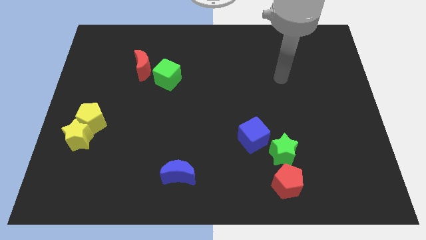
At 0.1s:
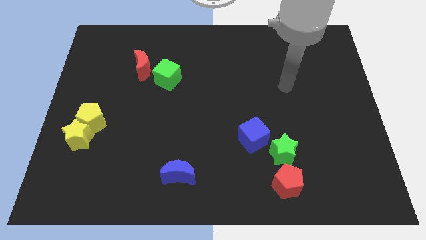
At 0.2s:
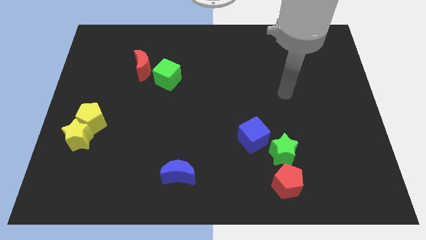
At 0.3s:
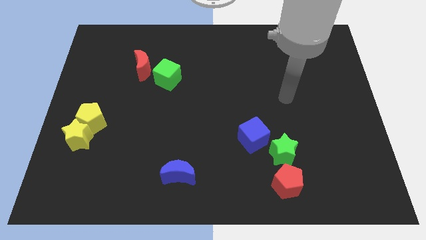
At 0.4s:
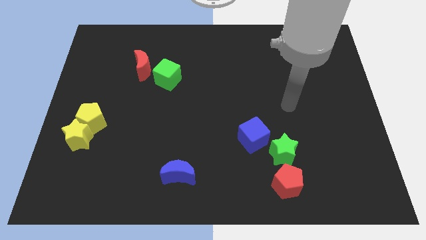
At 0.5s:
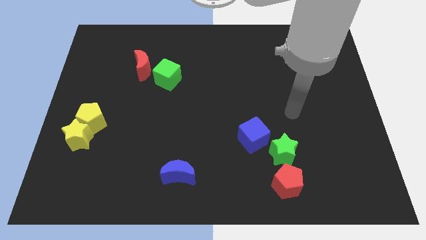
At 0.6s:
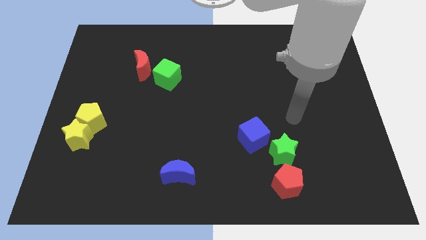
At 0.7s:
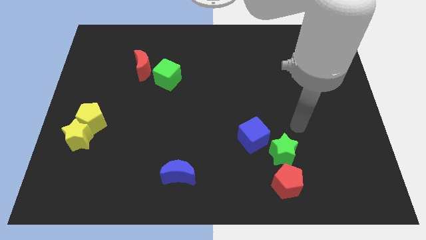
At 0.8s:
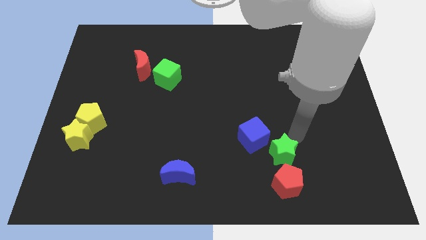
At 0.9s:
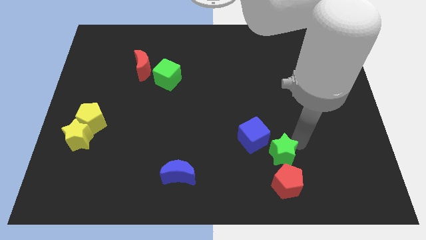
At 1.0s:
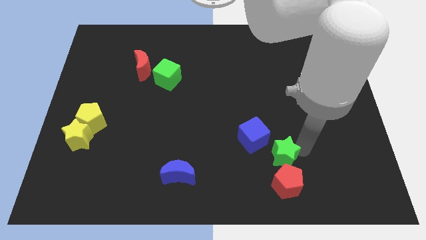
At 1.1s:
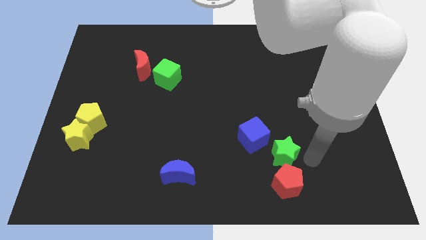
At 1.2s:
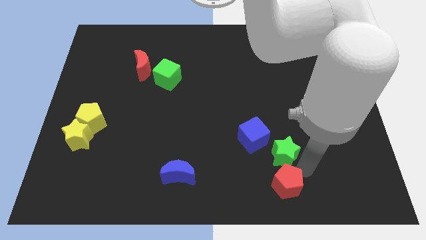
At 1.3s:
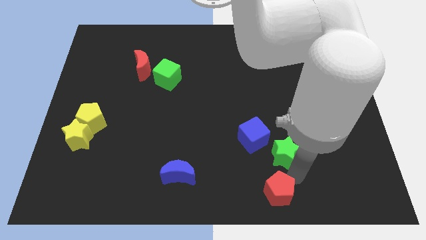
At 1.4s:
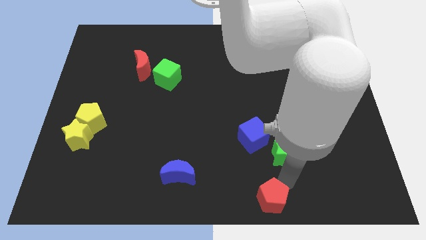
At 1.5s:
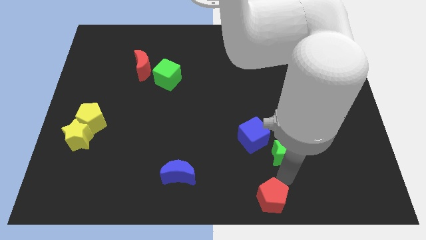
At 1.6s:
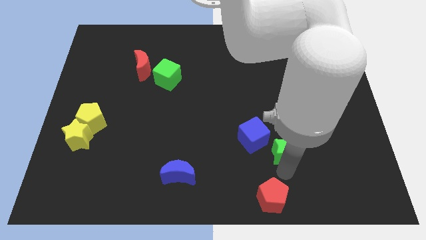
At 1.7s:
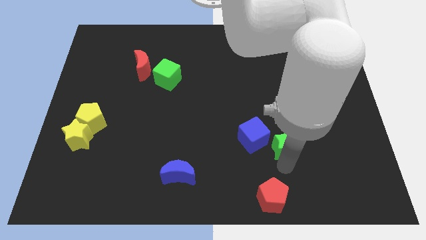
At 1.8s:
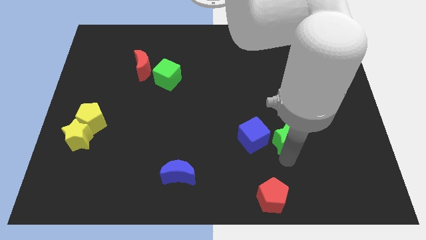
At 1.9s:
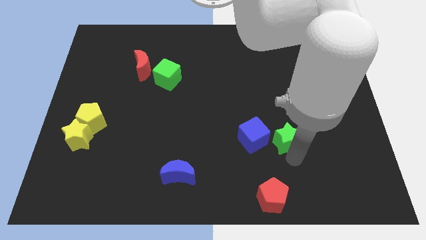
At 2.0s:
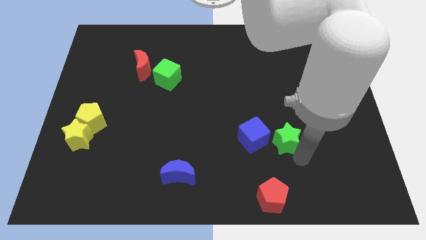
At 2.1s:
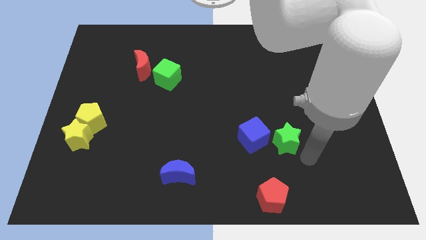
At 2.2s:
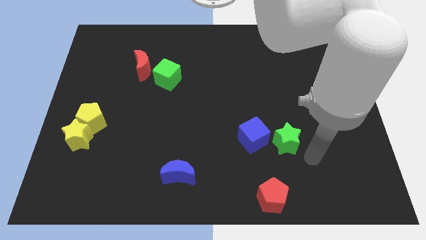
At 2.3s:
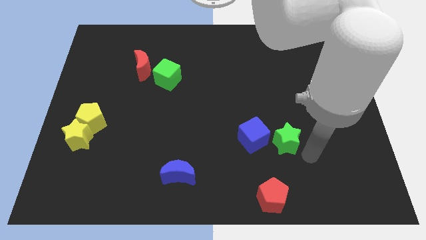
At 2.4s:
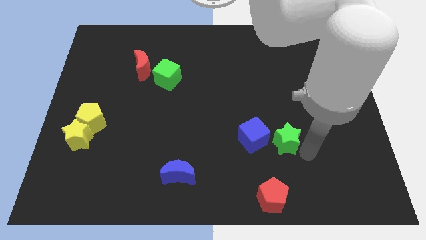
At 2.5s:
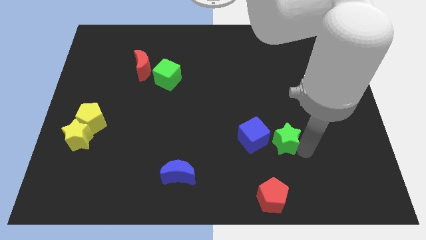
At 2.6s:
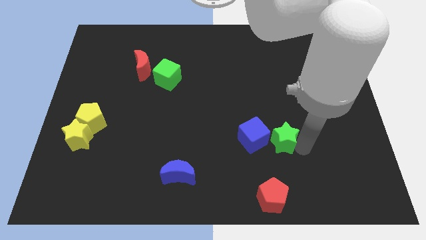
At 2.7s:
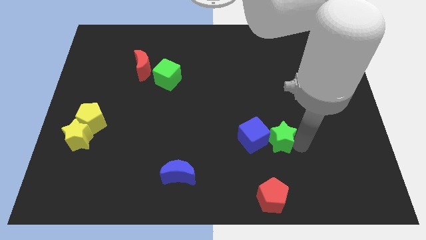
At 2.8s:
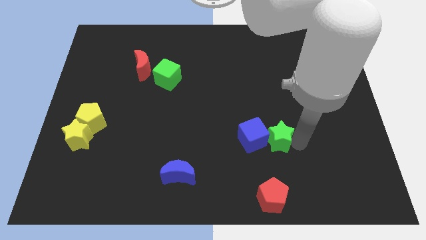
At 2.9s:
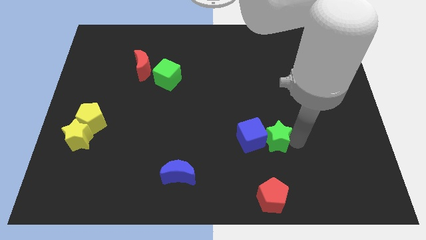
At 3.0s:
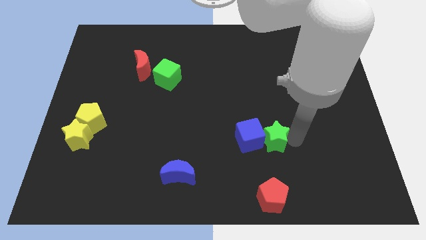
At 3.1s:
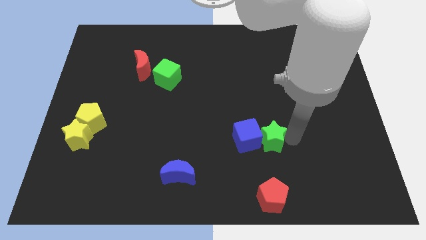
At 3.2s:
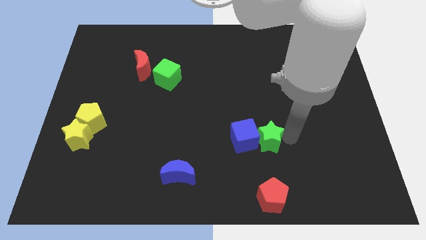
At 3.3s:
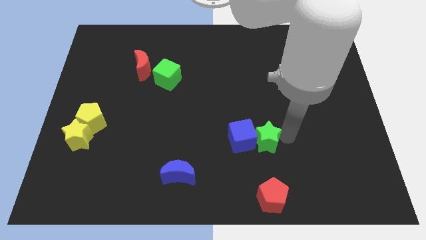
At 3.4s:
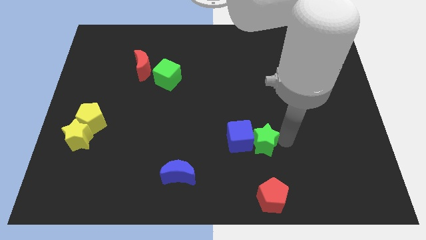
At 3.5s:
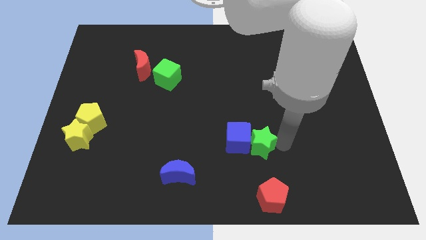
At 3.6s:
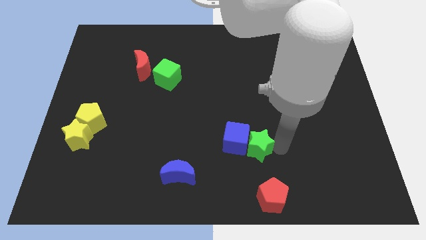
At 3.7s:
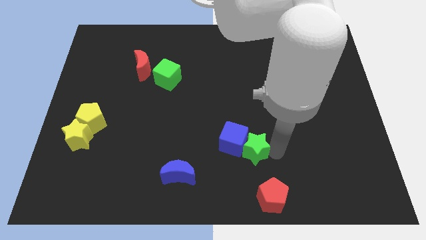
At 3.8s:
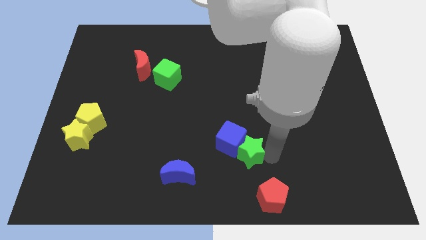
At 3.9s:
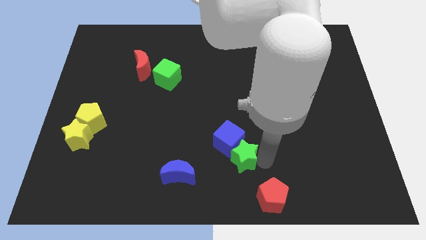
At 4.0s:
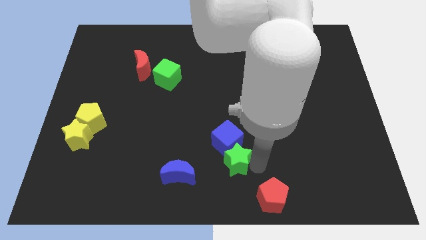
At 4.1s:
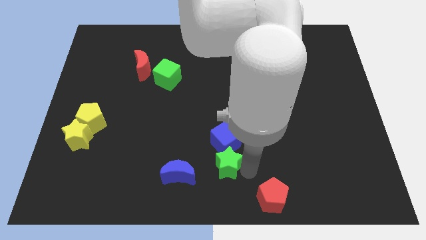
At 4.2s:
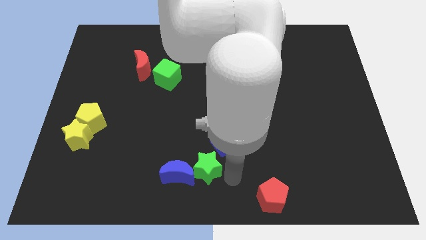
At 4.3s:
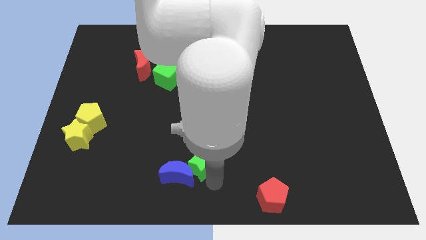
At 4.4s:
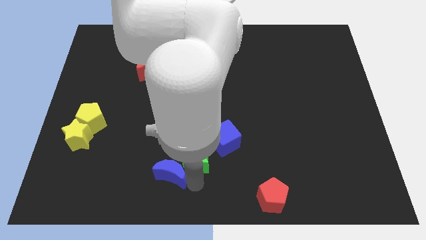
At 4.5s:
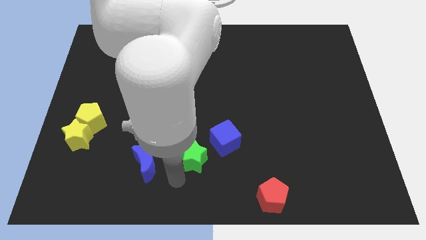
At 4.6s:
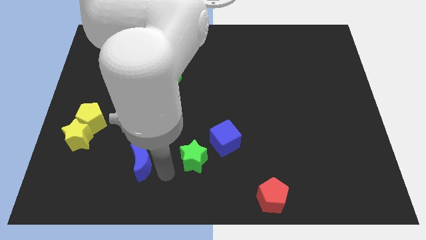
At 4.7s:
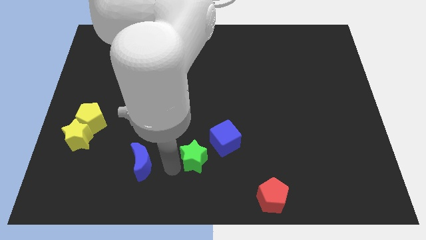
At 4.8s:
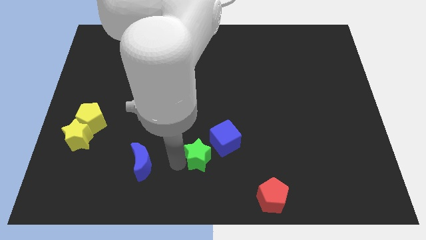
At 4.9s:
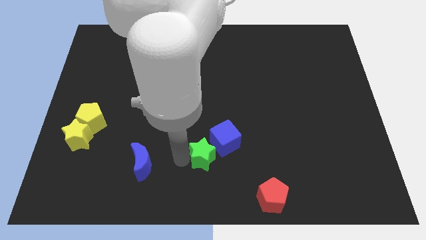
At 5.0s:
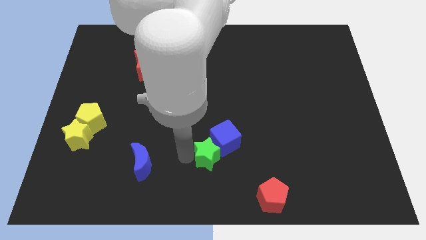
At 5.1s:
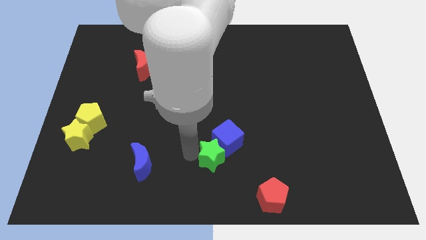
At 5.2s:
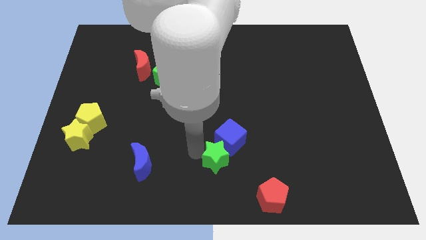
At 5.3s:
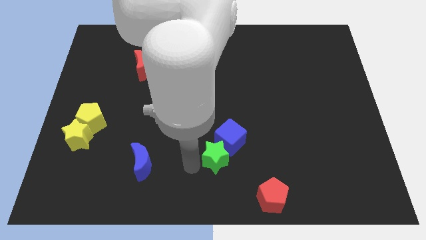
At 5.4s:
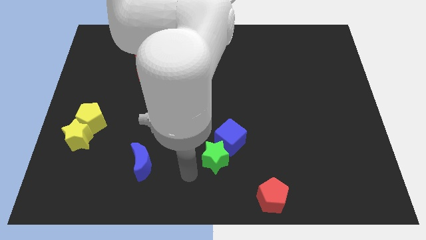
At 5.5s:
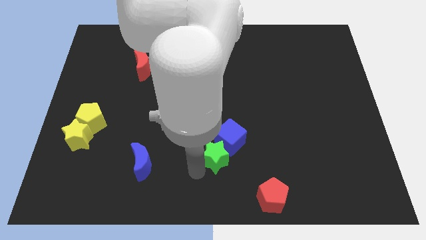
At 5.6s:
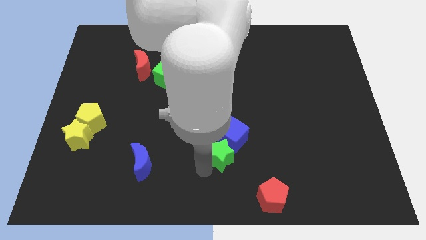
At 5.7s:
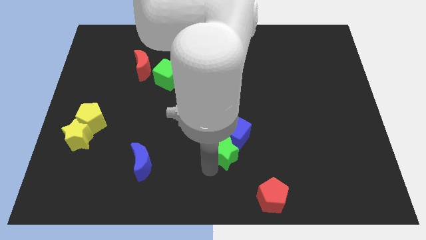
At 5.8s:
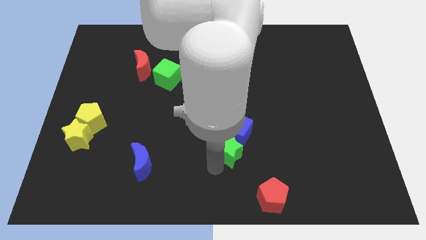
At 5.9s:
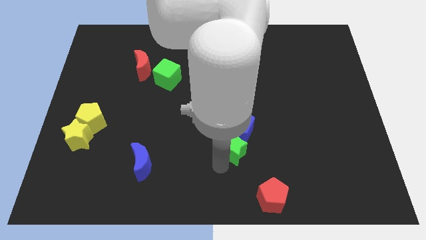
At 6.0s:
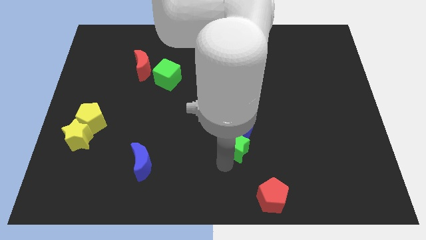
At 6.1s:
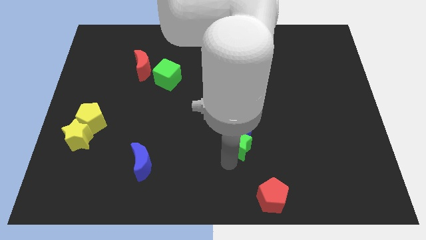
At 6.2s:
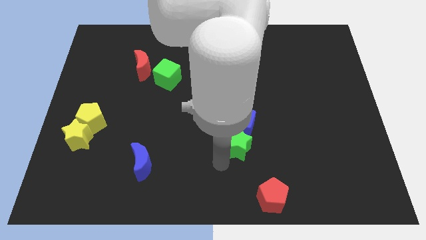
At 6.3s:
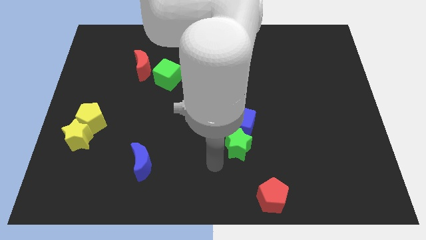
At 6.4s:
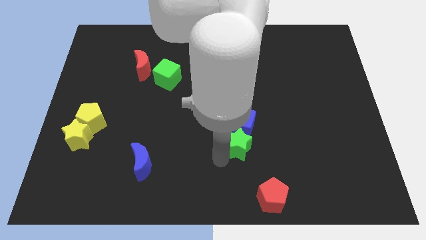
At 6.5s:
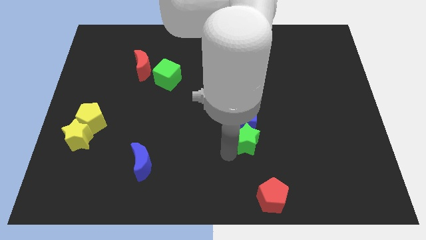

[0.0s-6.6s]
slightly slide the green star diagonally upwards and to the left

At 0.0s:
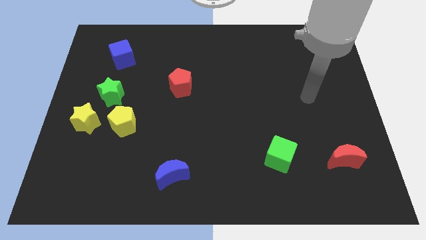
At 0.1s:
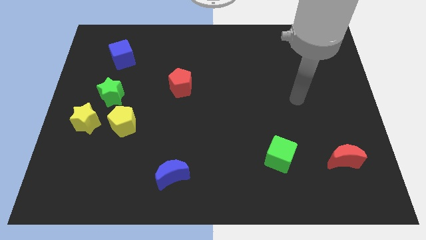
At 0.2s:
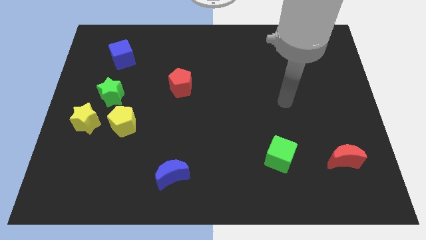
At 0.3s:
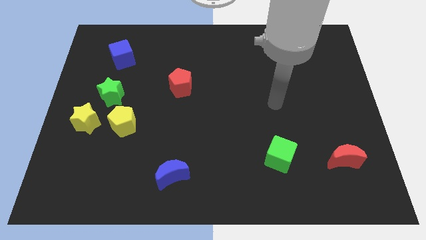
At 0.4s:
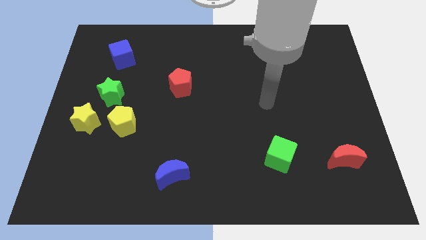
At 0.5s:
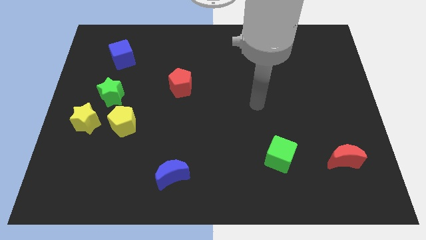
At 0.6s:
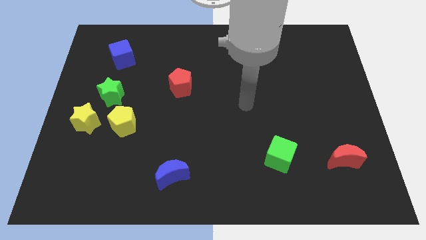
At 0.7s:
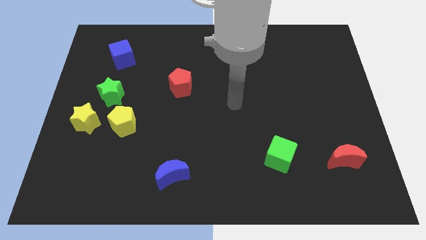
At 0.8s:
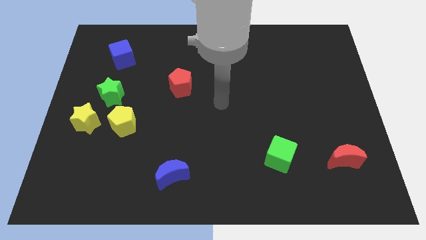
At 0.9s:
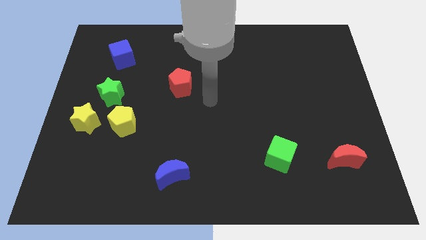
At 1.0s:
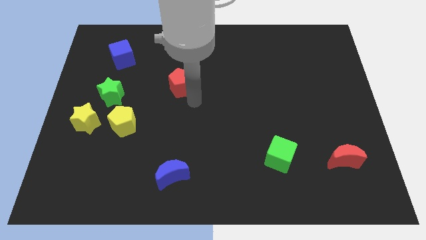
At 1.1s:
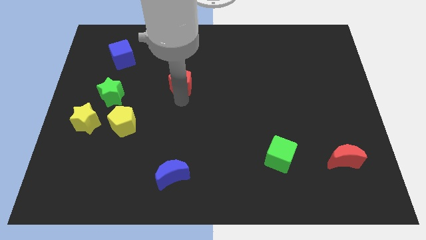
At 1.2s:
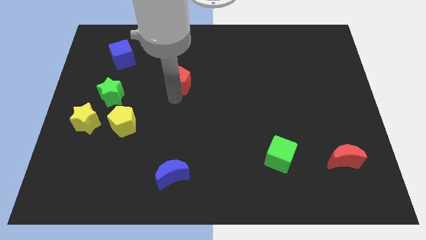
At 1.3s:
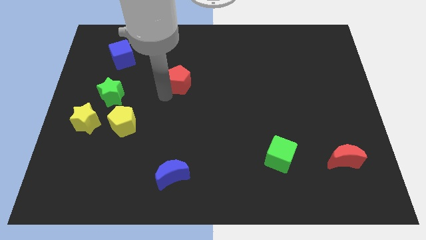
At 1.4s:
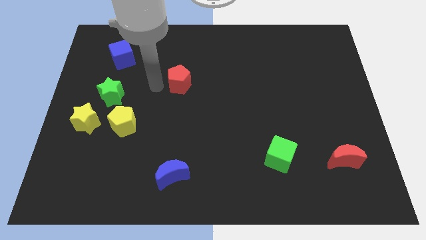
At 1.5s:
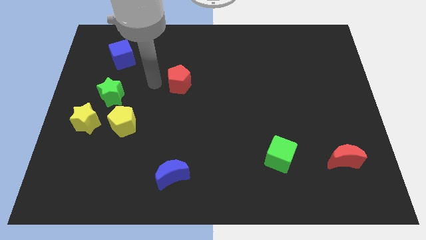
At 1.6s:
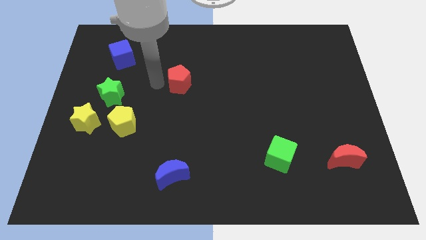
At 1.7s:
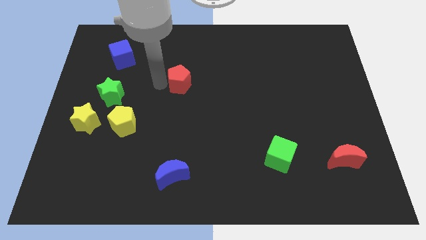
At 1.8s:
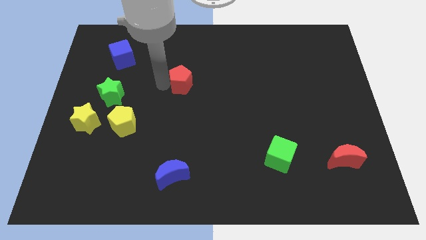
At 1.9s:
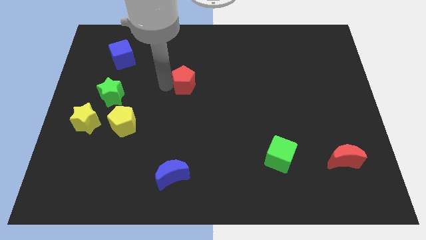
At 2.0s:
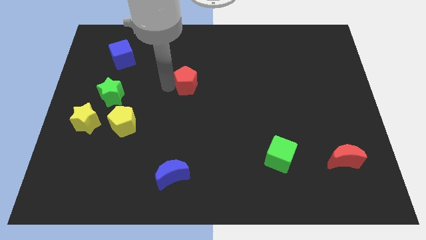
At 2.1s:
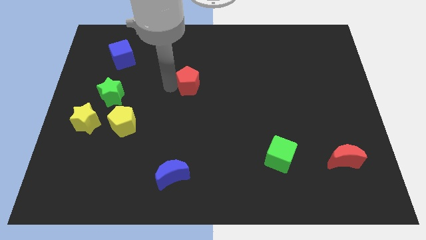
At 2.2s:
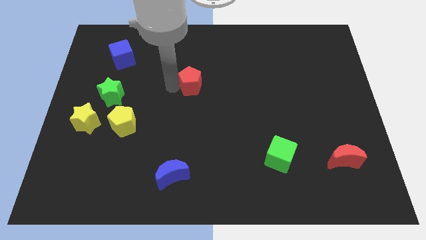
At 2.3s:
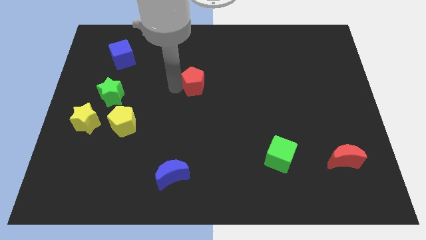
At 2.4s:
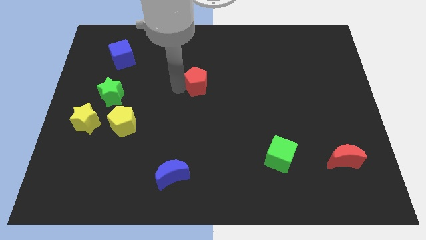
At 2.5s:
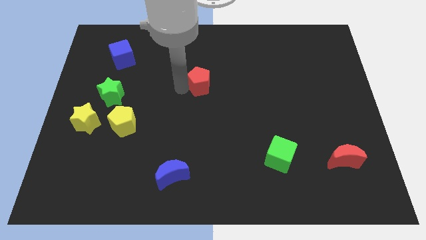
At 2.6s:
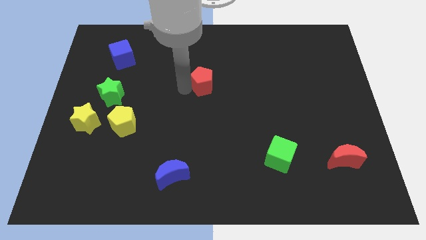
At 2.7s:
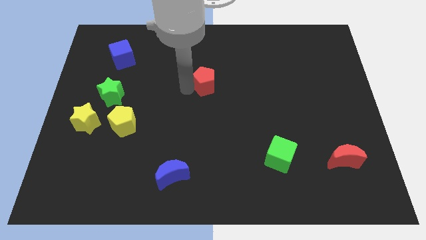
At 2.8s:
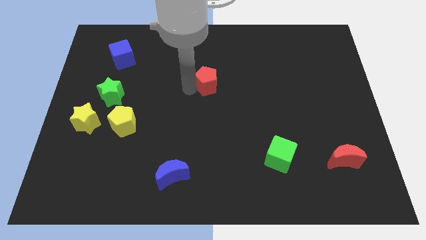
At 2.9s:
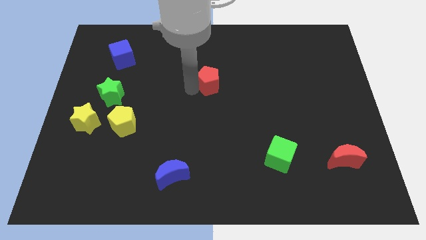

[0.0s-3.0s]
slide the red pentagon somewhat right
